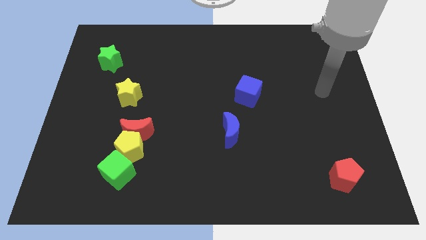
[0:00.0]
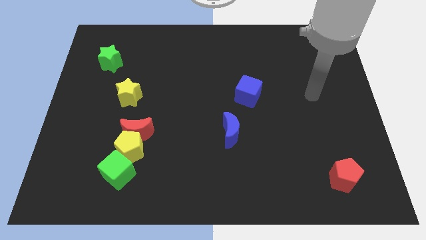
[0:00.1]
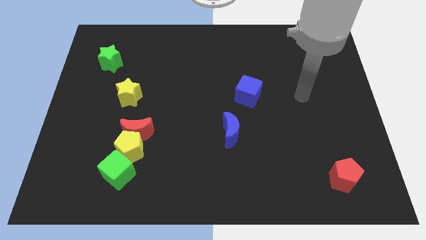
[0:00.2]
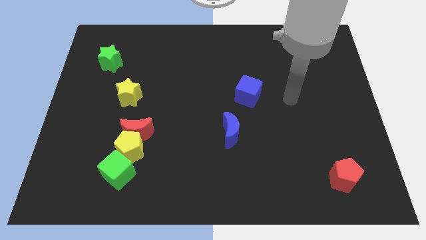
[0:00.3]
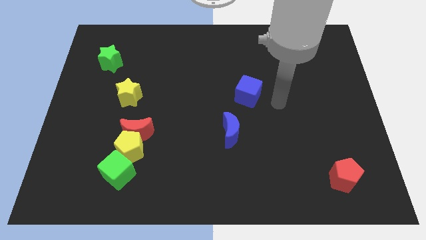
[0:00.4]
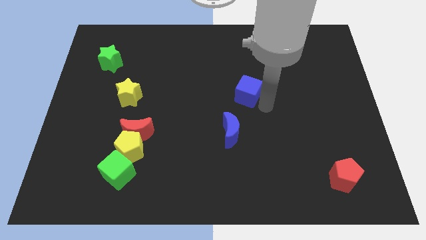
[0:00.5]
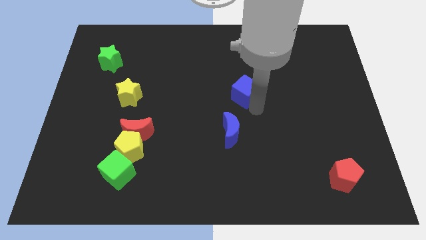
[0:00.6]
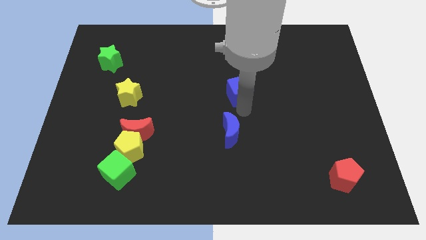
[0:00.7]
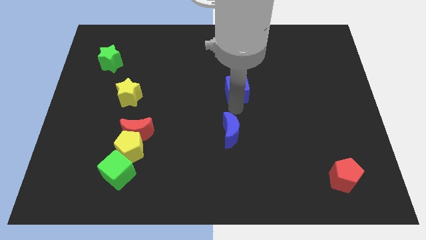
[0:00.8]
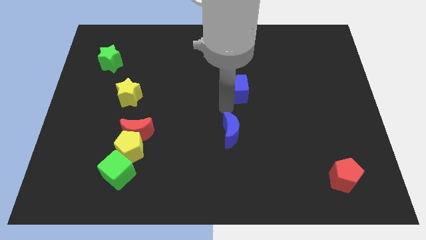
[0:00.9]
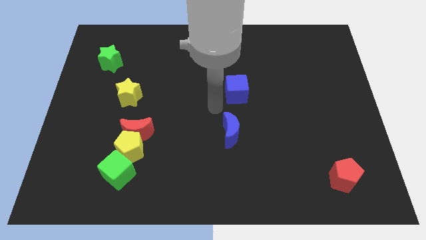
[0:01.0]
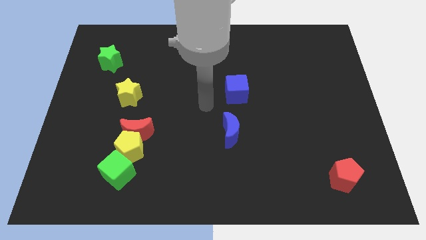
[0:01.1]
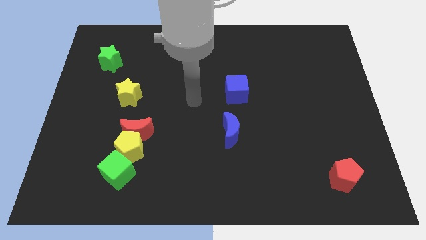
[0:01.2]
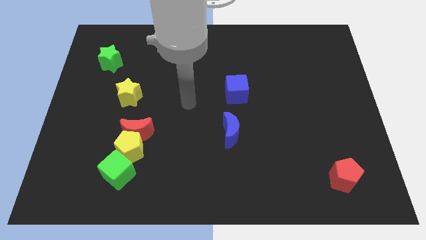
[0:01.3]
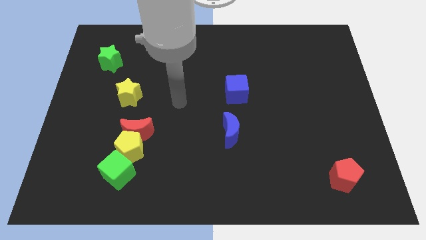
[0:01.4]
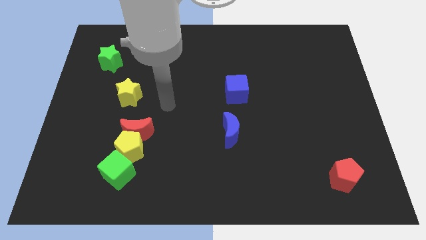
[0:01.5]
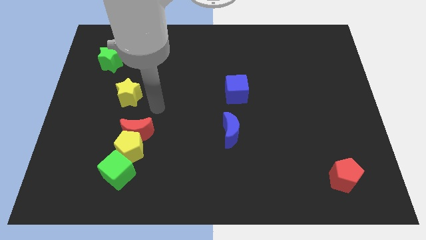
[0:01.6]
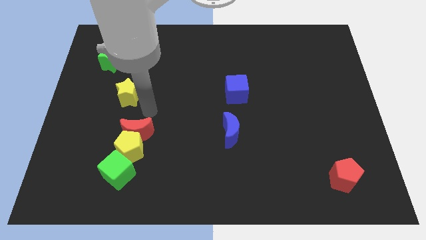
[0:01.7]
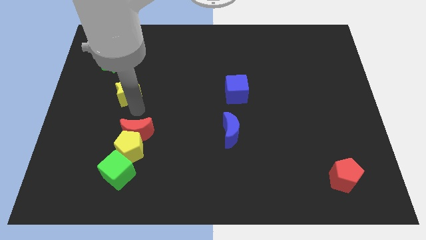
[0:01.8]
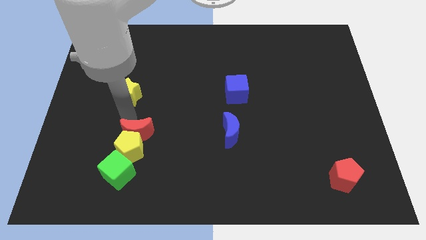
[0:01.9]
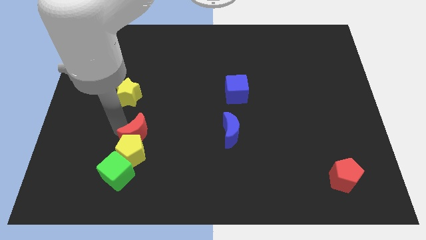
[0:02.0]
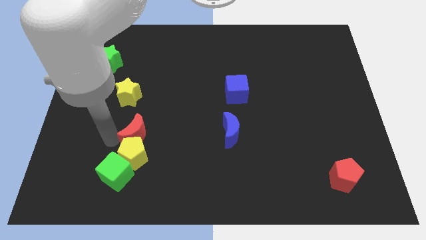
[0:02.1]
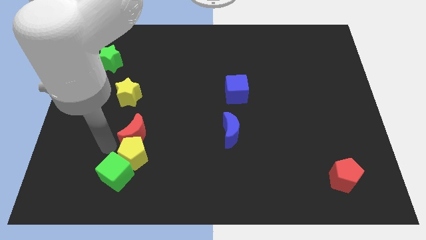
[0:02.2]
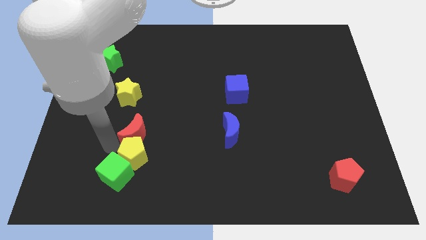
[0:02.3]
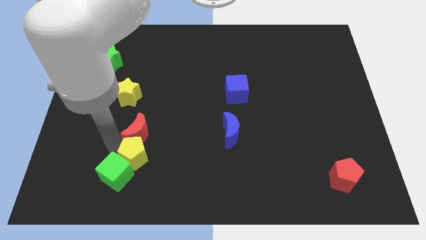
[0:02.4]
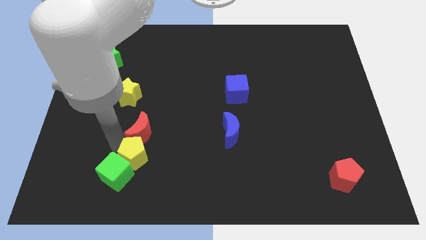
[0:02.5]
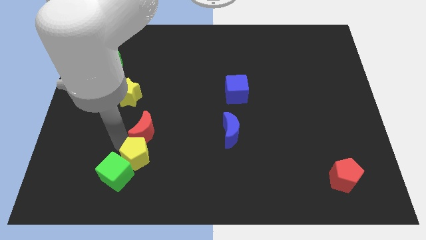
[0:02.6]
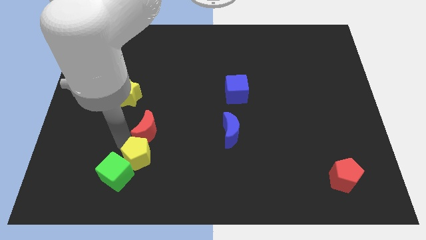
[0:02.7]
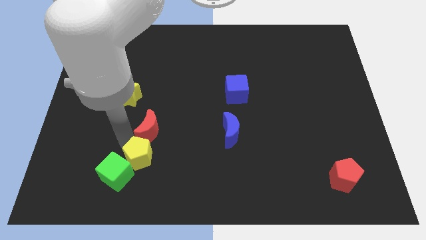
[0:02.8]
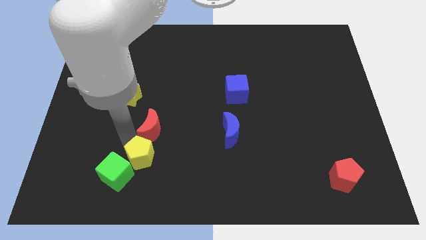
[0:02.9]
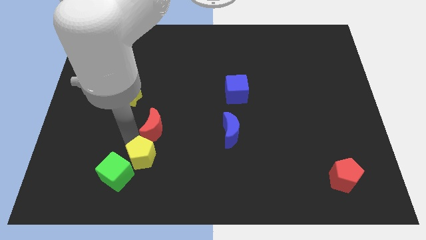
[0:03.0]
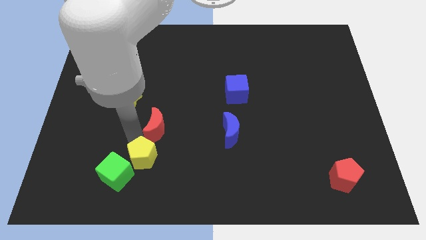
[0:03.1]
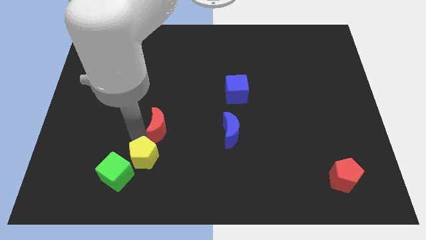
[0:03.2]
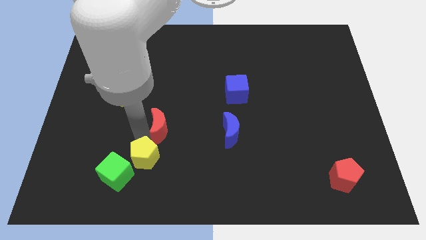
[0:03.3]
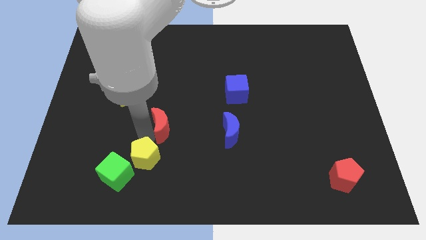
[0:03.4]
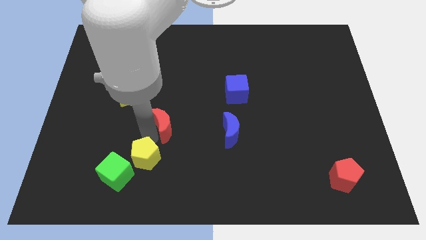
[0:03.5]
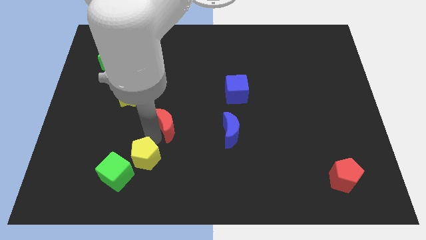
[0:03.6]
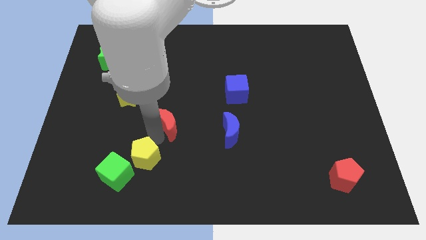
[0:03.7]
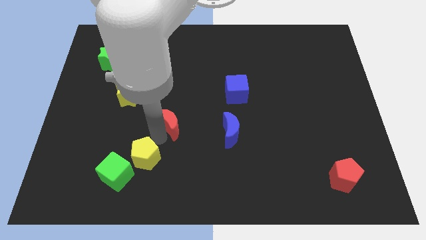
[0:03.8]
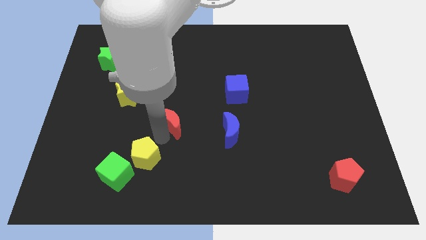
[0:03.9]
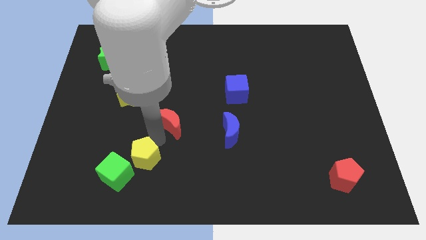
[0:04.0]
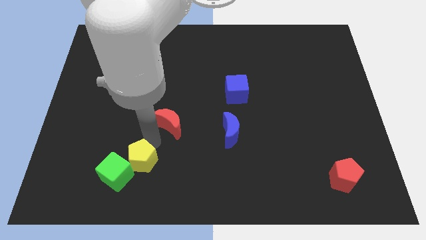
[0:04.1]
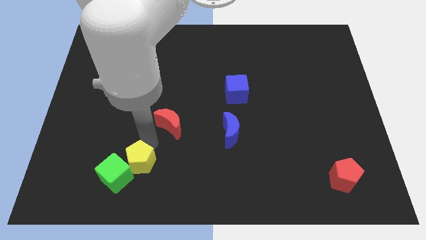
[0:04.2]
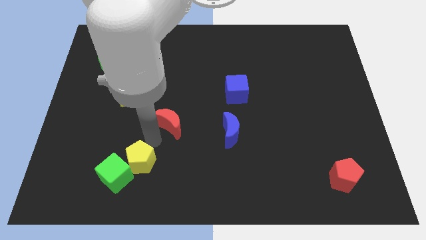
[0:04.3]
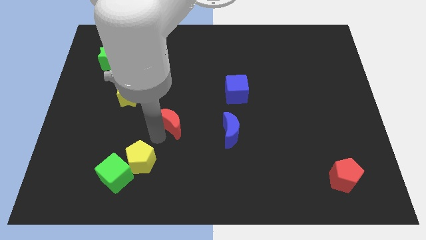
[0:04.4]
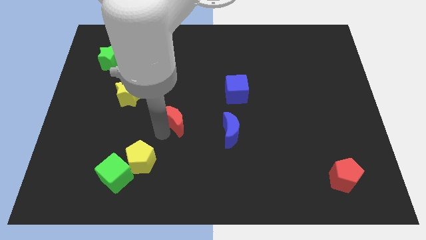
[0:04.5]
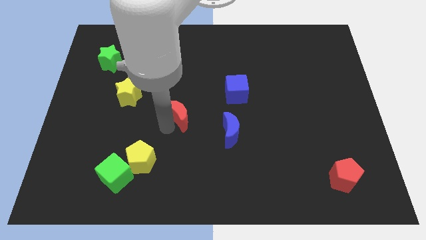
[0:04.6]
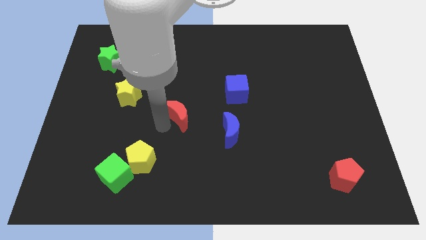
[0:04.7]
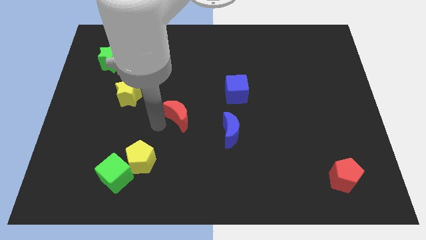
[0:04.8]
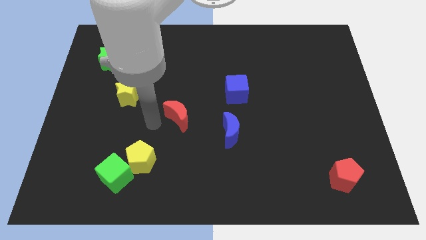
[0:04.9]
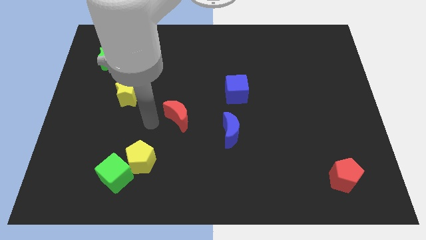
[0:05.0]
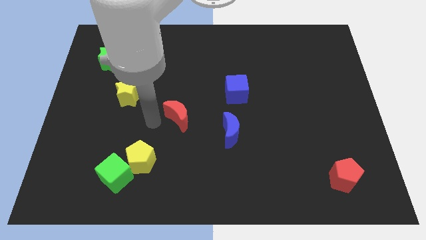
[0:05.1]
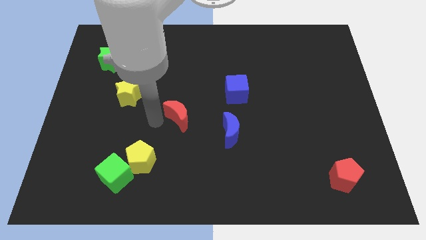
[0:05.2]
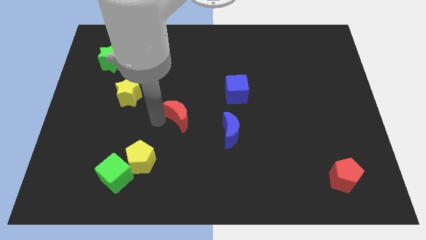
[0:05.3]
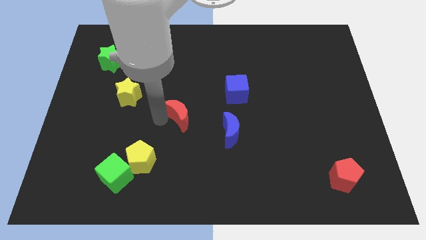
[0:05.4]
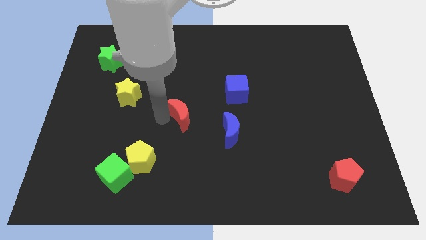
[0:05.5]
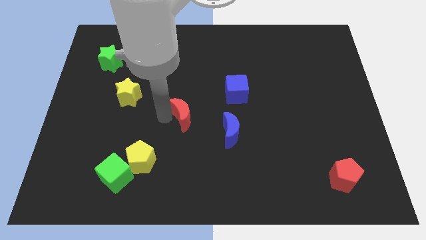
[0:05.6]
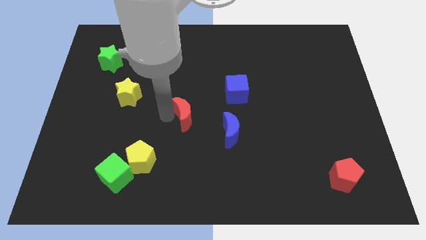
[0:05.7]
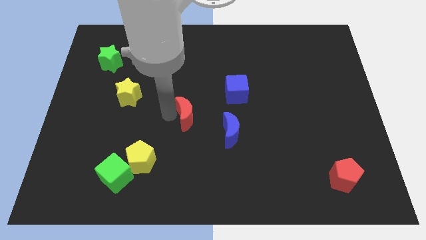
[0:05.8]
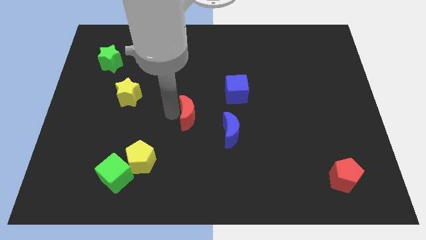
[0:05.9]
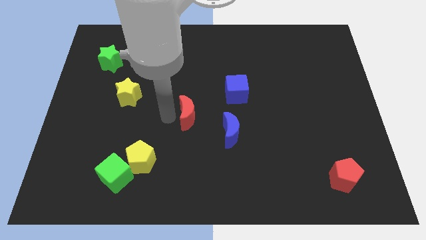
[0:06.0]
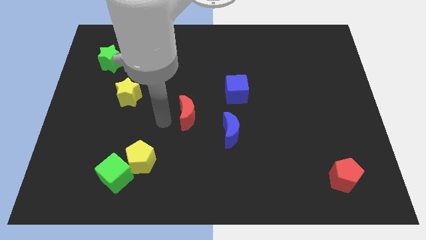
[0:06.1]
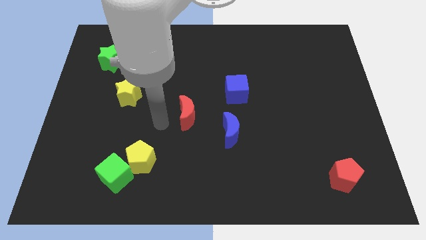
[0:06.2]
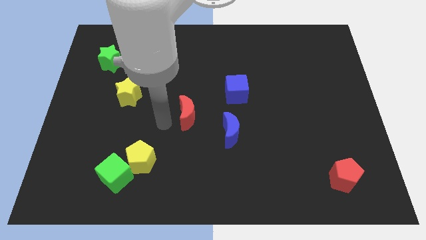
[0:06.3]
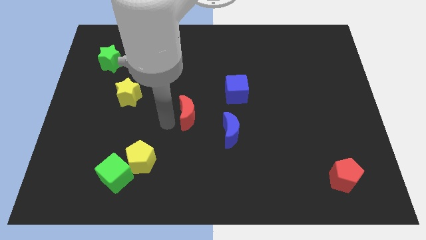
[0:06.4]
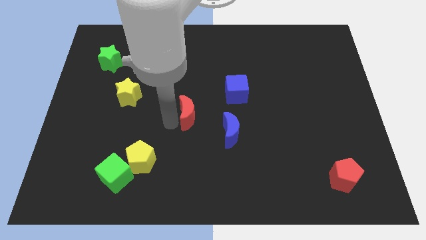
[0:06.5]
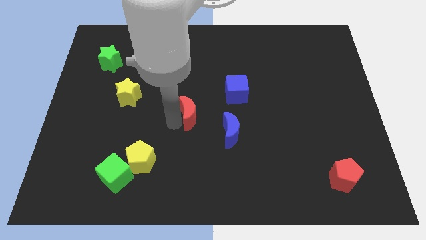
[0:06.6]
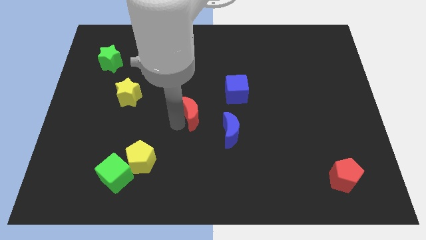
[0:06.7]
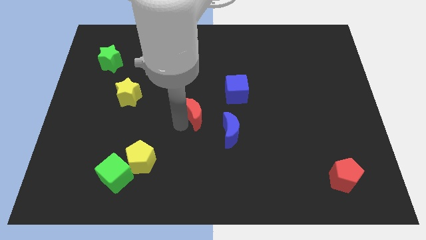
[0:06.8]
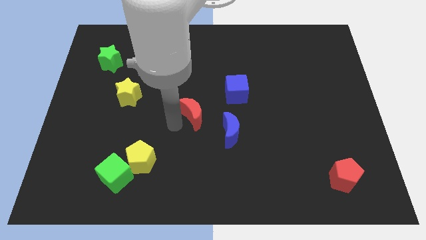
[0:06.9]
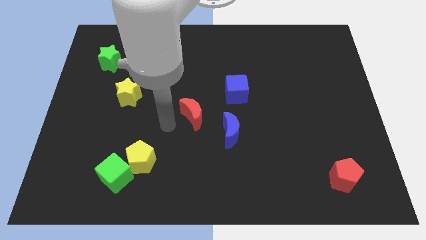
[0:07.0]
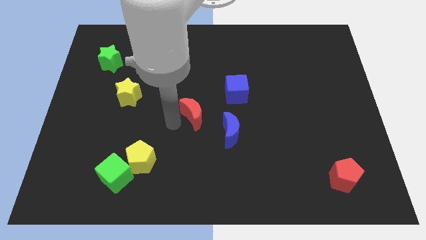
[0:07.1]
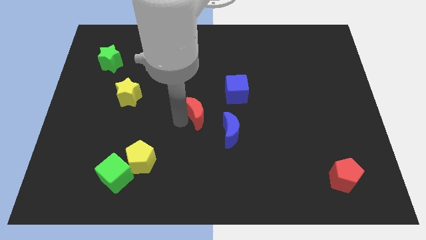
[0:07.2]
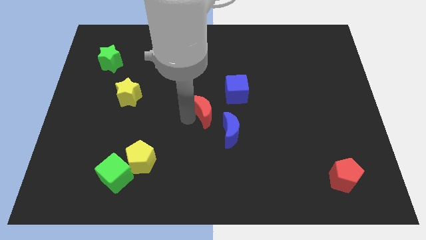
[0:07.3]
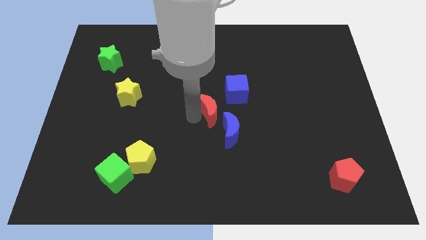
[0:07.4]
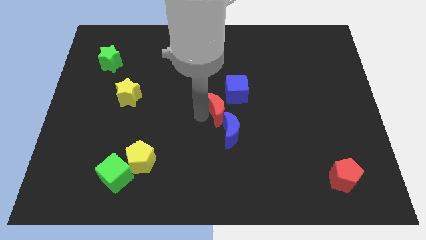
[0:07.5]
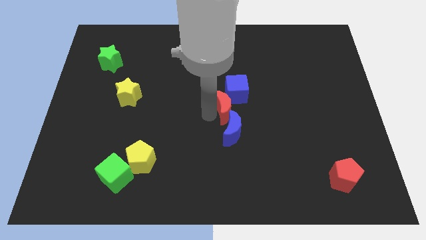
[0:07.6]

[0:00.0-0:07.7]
put the red moon close to the blue cube
